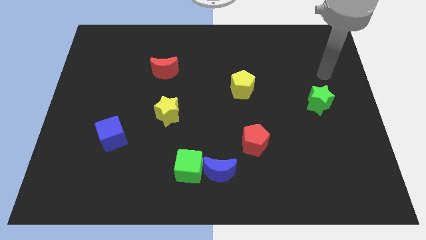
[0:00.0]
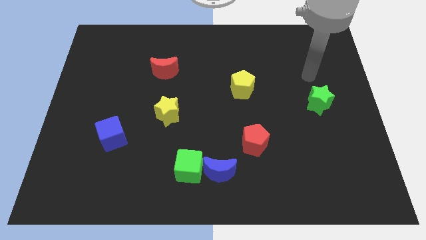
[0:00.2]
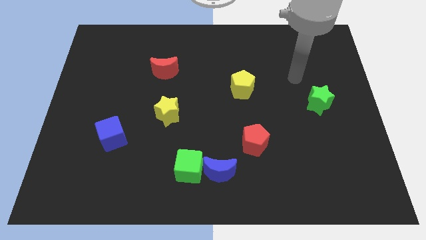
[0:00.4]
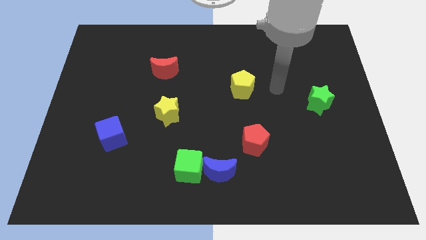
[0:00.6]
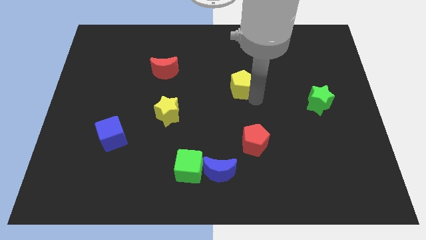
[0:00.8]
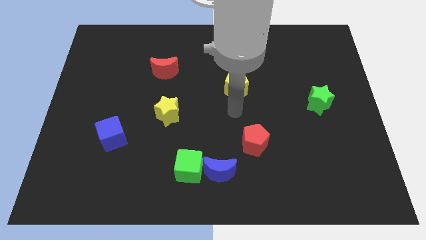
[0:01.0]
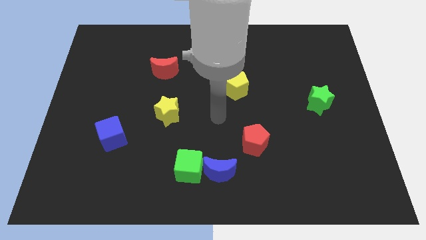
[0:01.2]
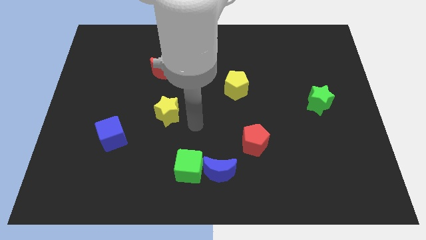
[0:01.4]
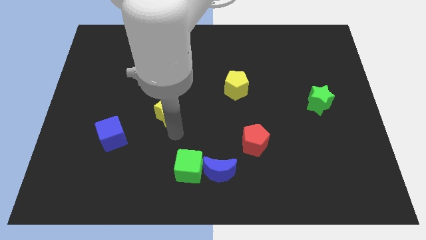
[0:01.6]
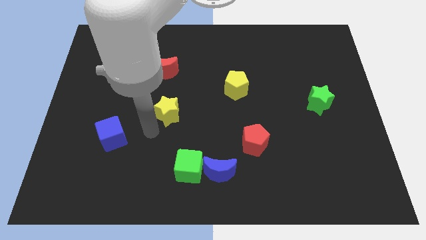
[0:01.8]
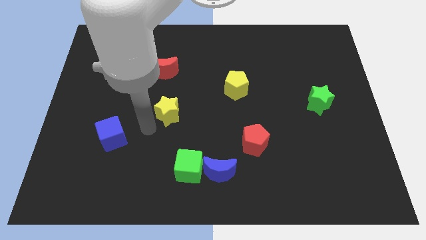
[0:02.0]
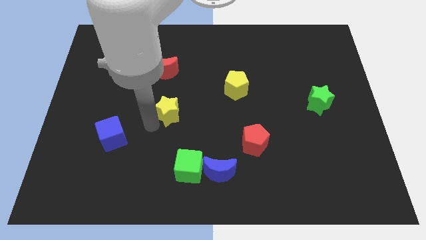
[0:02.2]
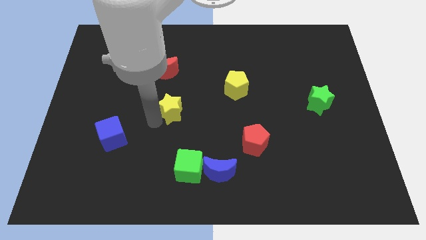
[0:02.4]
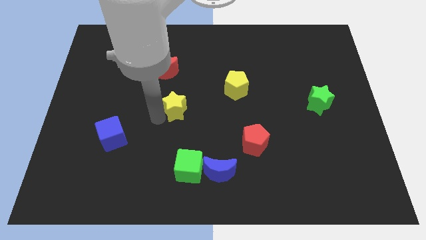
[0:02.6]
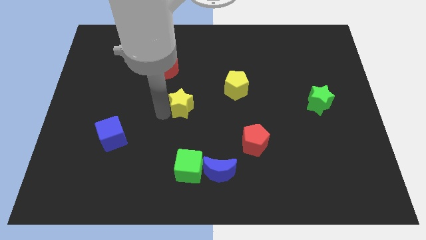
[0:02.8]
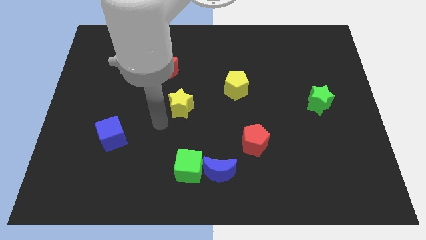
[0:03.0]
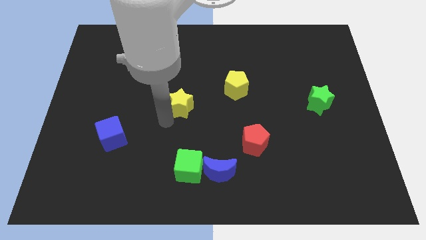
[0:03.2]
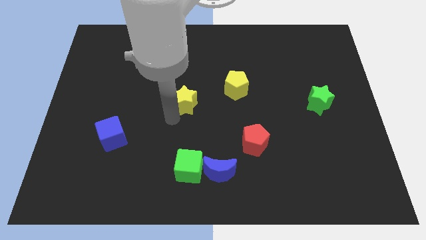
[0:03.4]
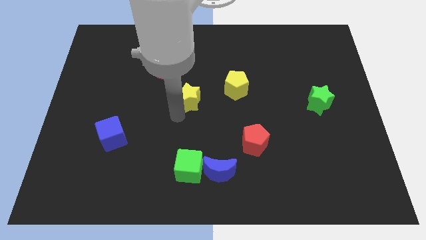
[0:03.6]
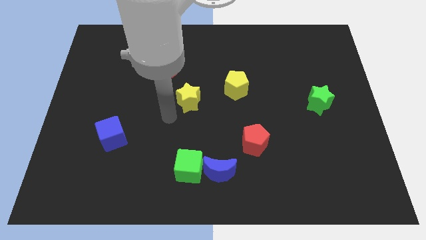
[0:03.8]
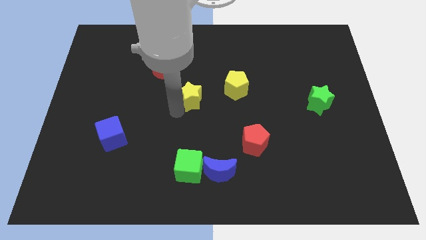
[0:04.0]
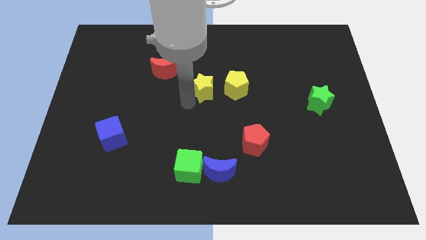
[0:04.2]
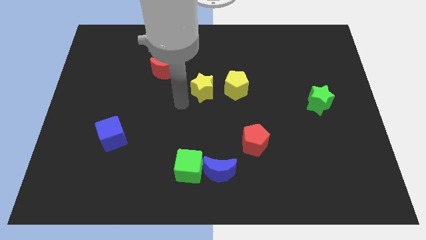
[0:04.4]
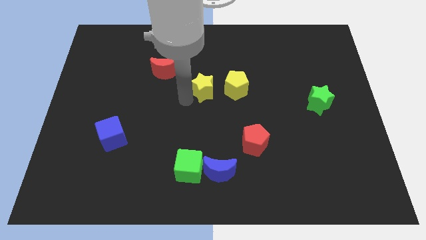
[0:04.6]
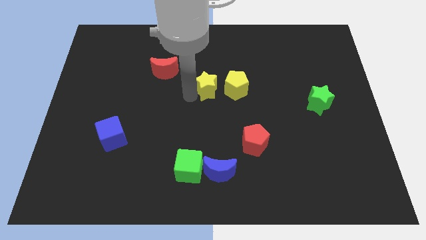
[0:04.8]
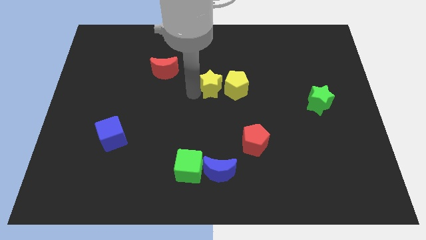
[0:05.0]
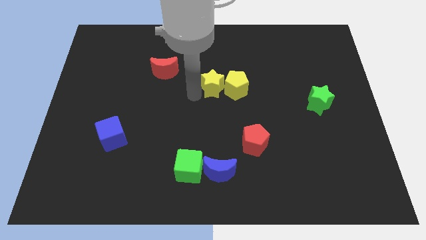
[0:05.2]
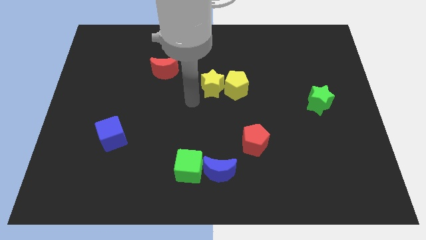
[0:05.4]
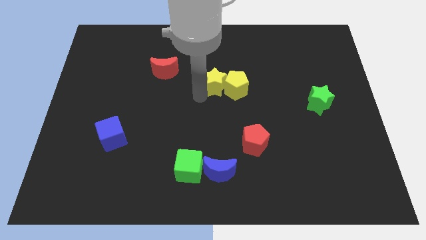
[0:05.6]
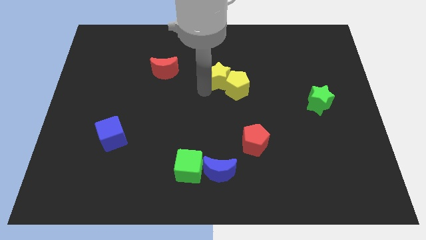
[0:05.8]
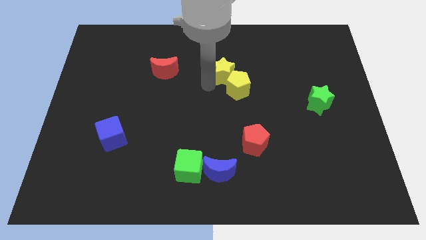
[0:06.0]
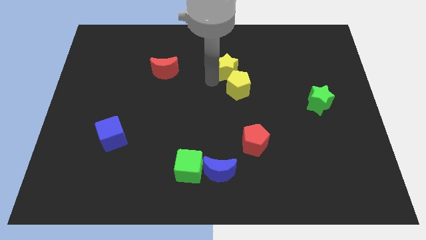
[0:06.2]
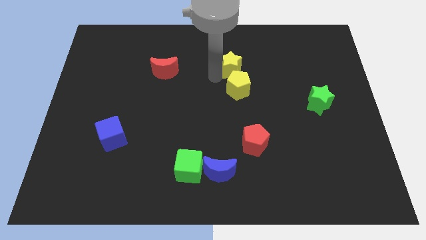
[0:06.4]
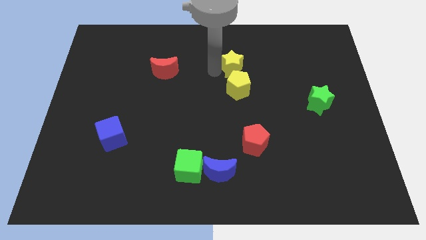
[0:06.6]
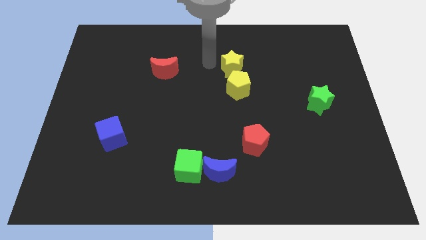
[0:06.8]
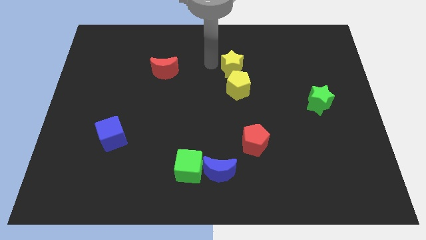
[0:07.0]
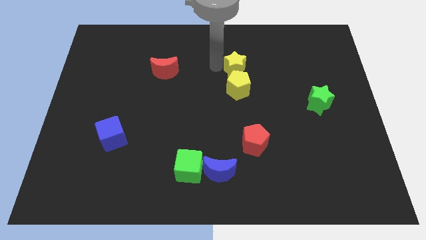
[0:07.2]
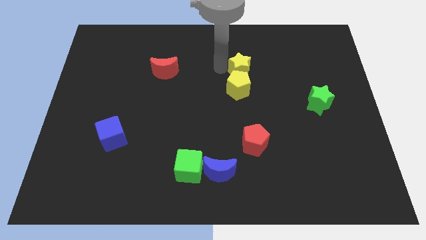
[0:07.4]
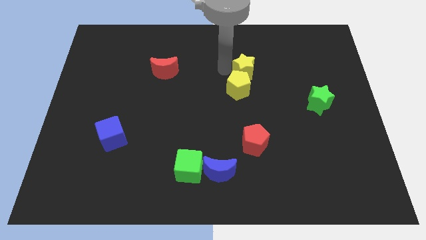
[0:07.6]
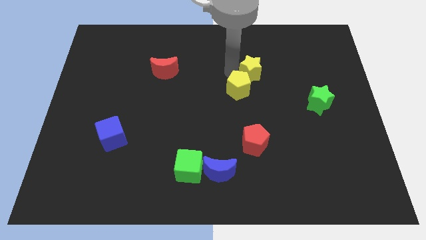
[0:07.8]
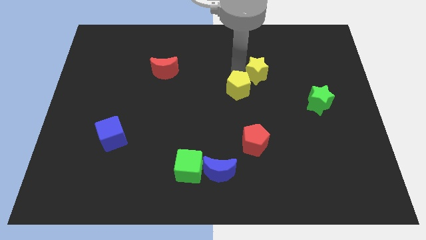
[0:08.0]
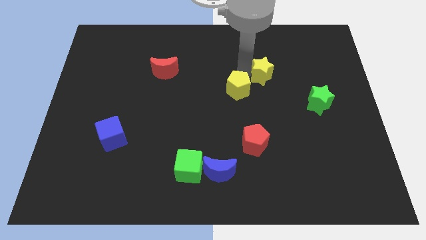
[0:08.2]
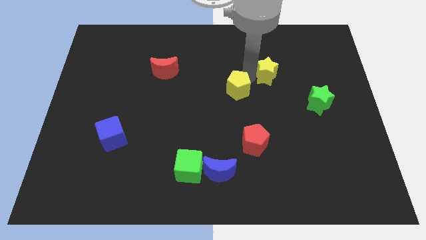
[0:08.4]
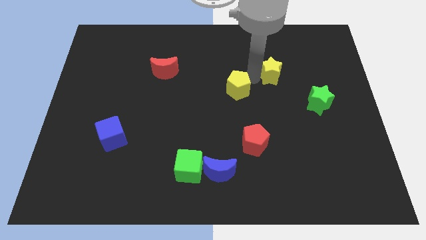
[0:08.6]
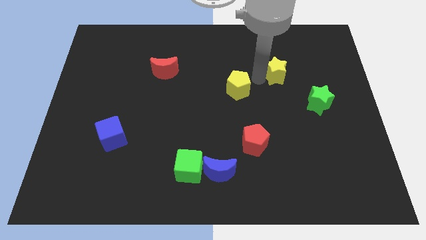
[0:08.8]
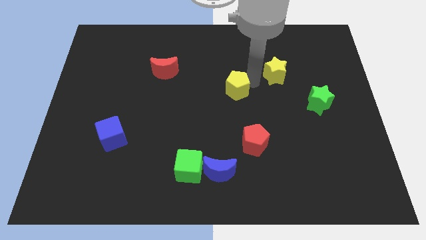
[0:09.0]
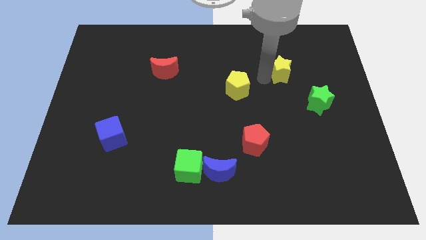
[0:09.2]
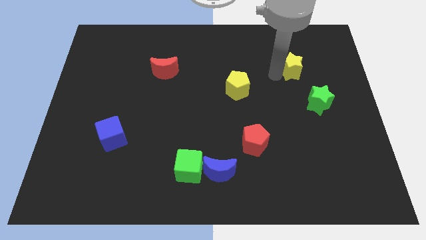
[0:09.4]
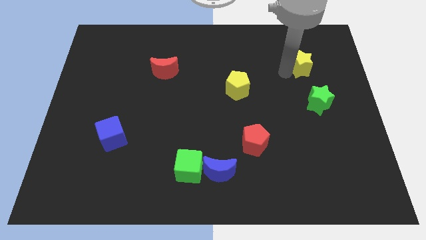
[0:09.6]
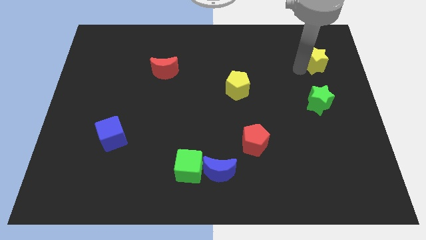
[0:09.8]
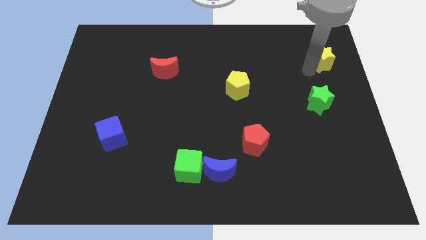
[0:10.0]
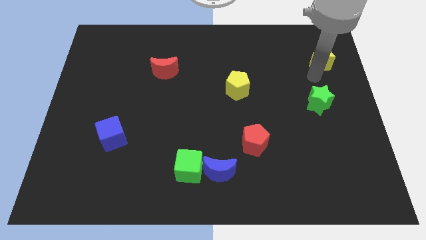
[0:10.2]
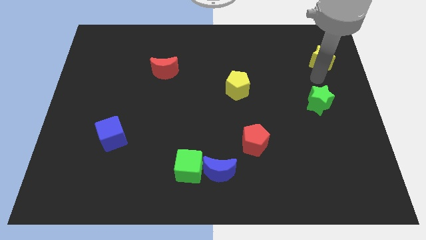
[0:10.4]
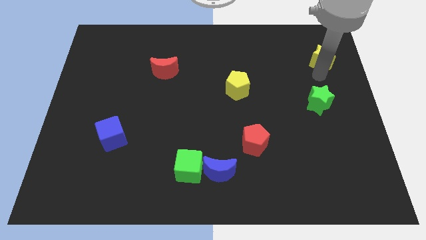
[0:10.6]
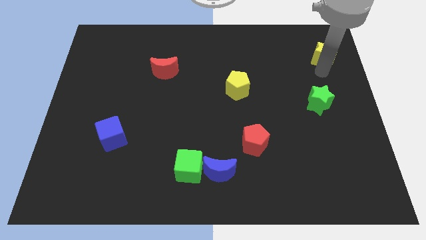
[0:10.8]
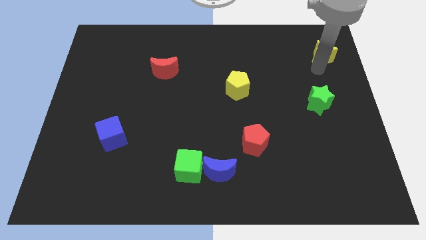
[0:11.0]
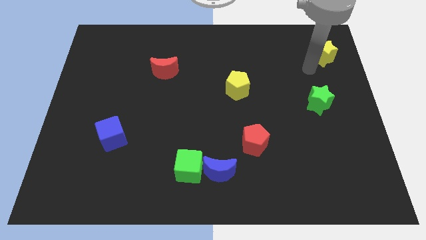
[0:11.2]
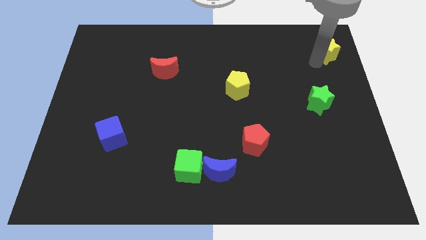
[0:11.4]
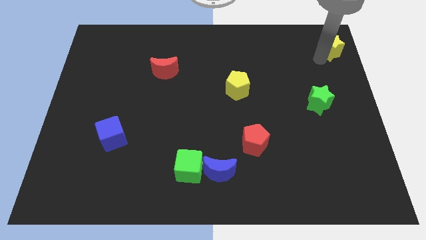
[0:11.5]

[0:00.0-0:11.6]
put the yellow star to the top right of the board
